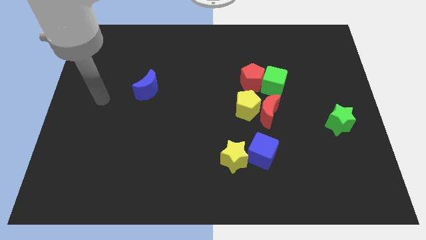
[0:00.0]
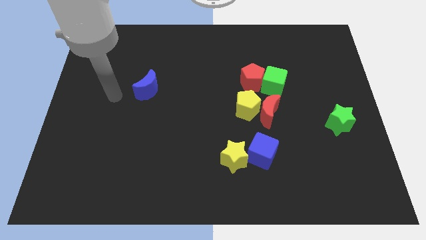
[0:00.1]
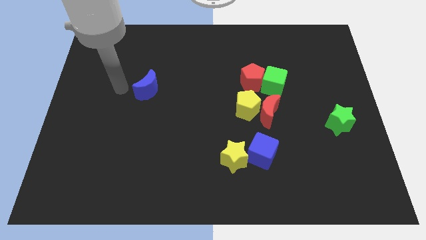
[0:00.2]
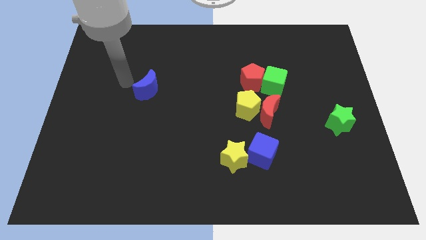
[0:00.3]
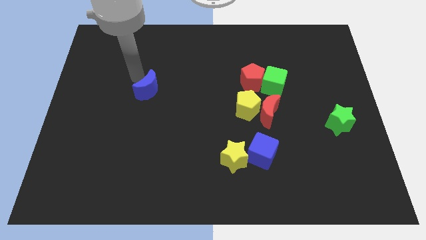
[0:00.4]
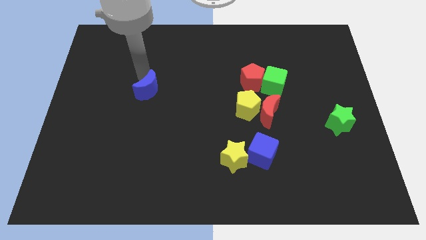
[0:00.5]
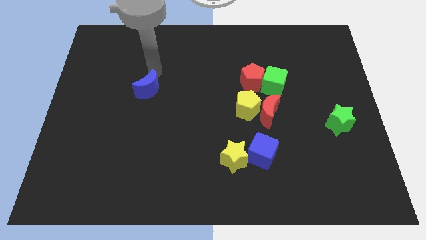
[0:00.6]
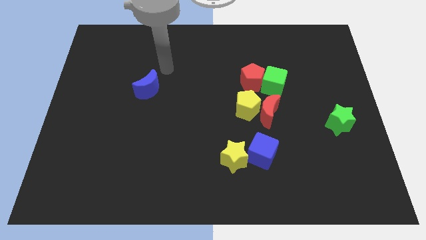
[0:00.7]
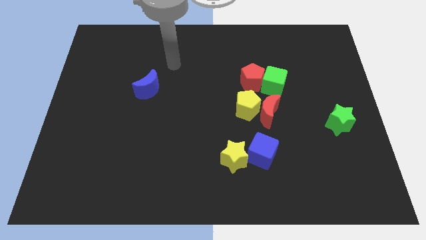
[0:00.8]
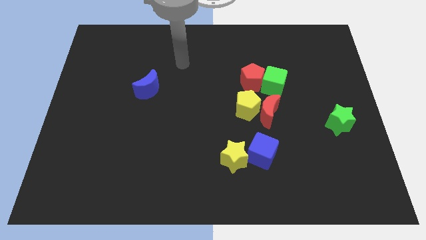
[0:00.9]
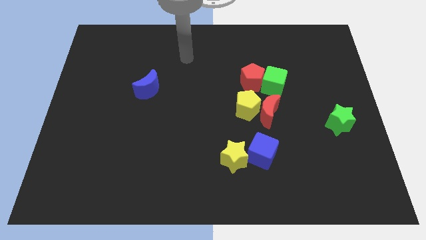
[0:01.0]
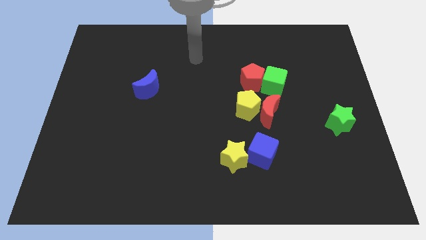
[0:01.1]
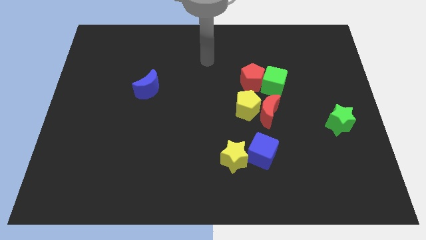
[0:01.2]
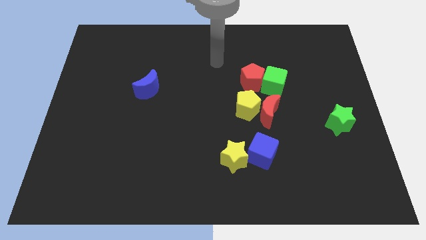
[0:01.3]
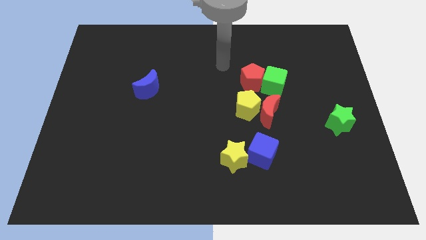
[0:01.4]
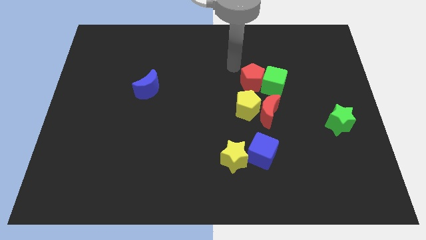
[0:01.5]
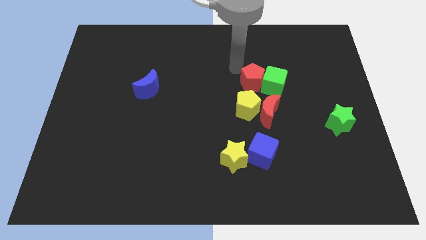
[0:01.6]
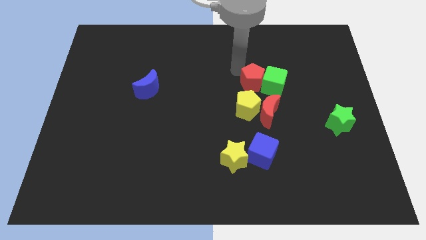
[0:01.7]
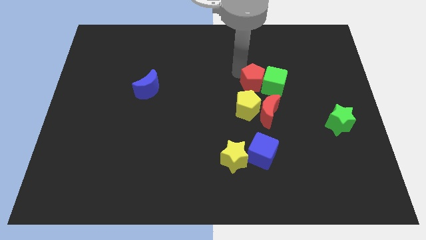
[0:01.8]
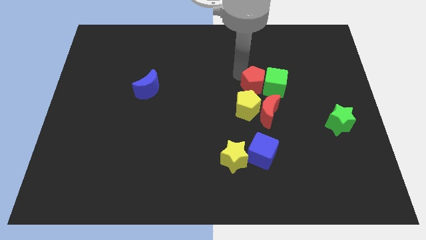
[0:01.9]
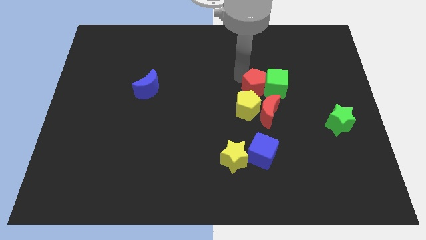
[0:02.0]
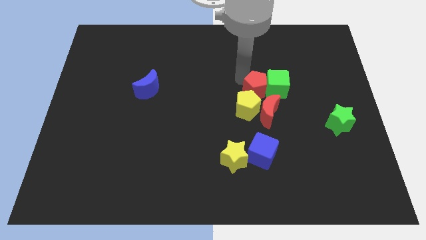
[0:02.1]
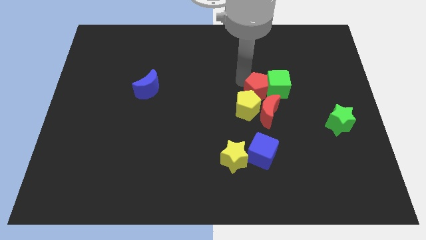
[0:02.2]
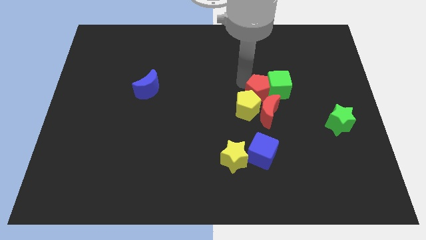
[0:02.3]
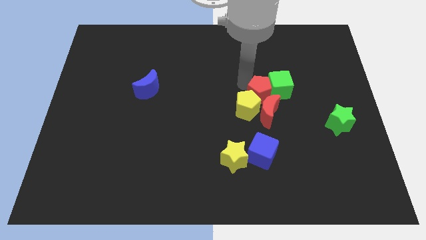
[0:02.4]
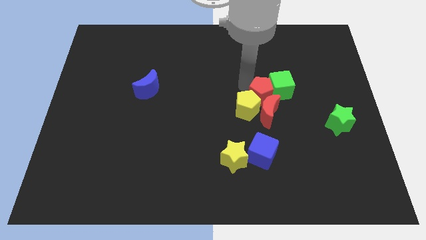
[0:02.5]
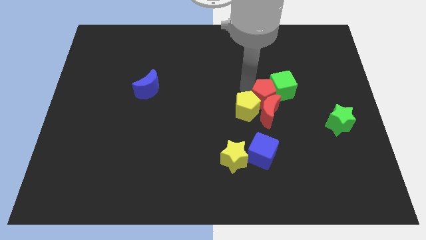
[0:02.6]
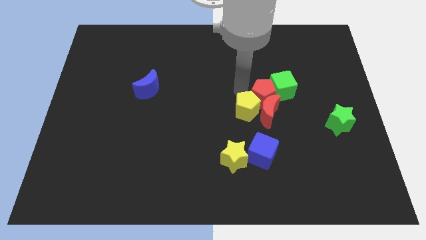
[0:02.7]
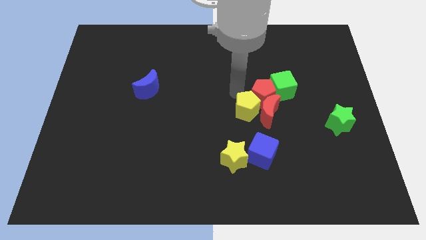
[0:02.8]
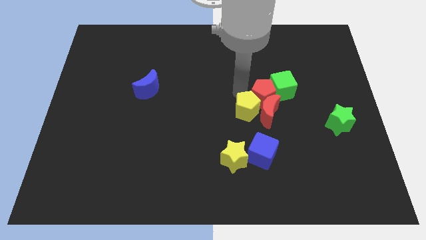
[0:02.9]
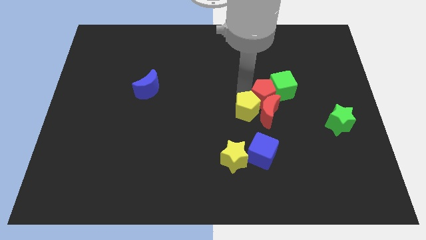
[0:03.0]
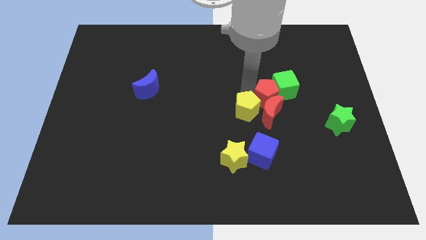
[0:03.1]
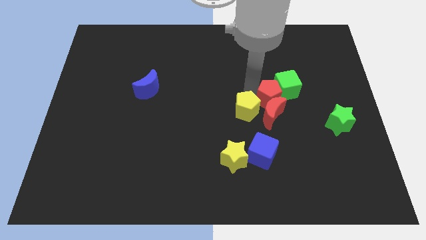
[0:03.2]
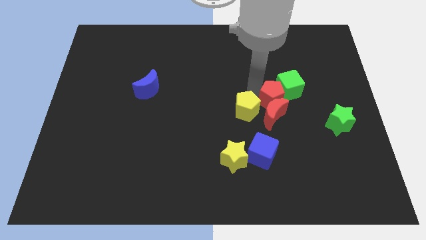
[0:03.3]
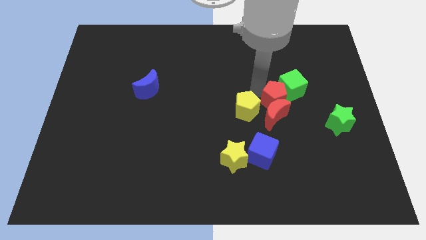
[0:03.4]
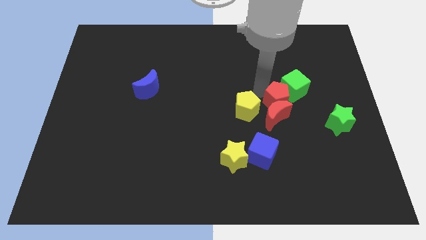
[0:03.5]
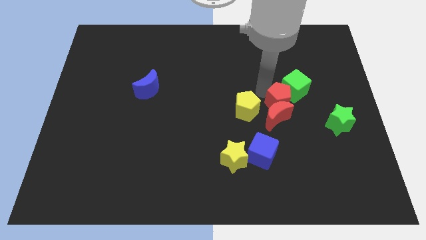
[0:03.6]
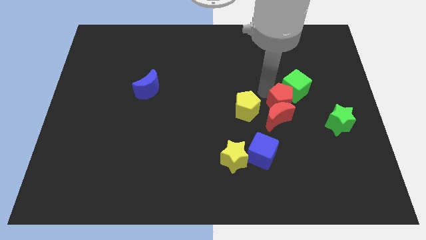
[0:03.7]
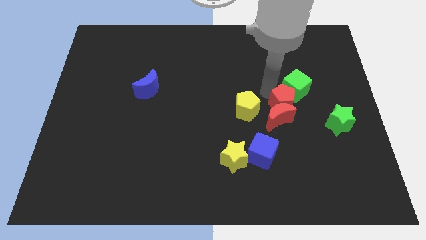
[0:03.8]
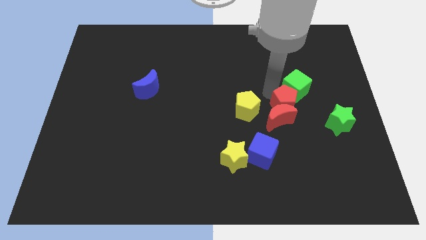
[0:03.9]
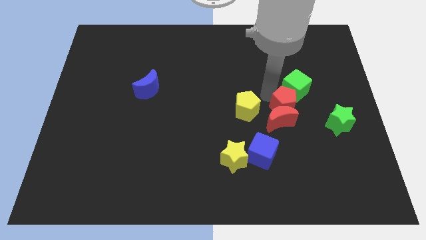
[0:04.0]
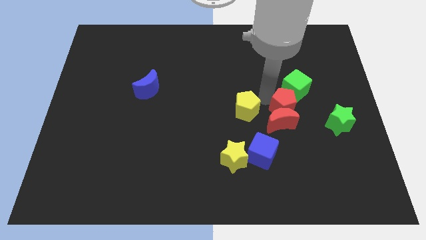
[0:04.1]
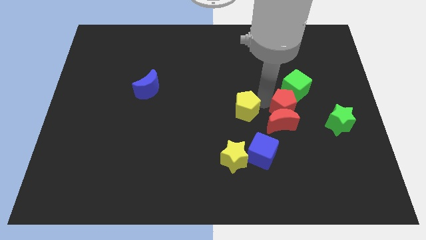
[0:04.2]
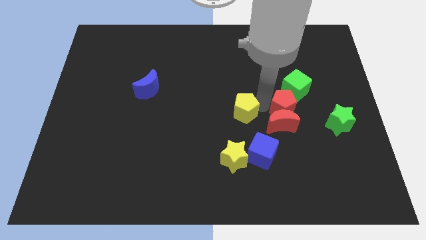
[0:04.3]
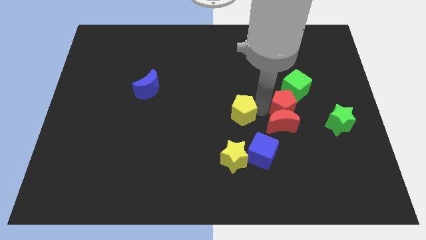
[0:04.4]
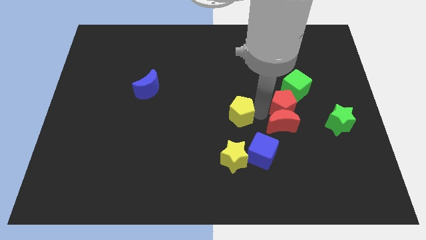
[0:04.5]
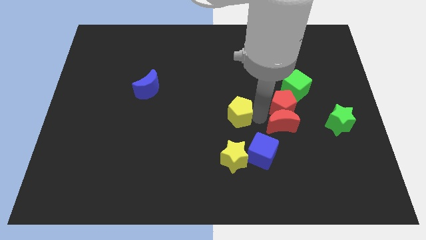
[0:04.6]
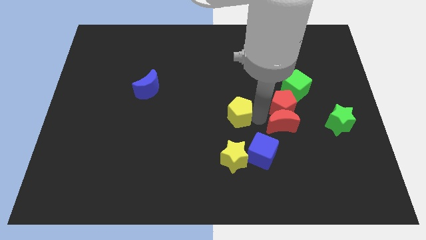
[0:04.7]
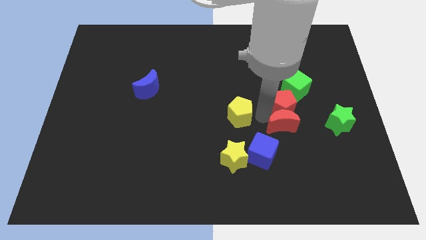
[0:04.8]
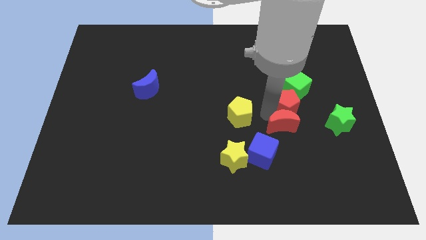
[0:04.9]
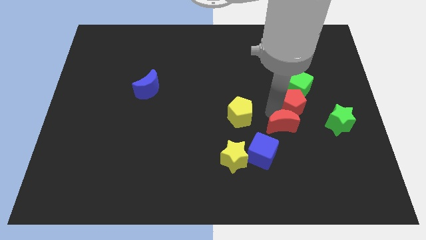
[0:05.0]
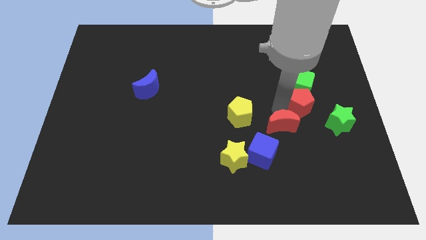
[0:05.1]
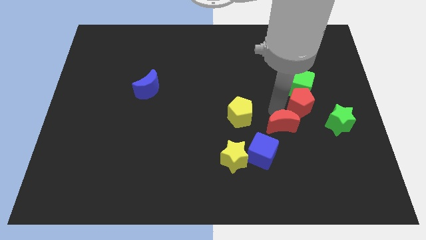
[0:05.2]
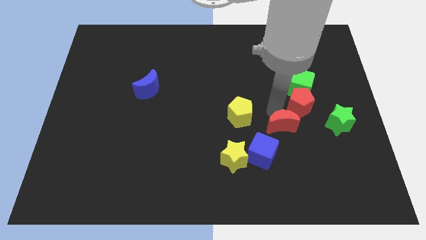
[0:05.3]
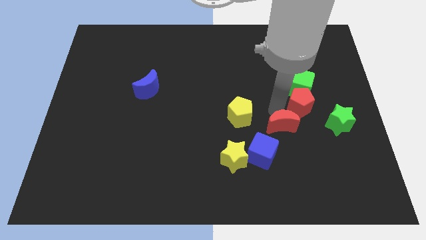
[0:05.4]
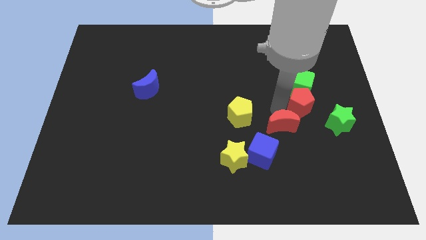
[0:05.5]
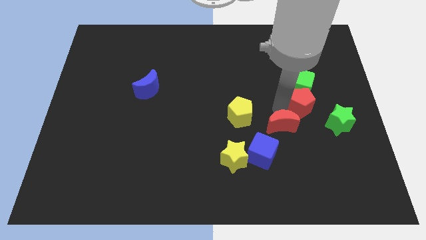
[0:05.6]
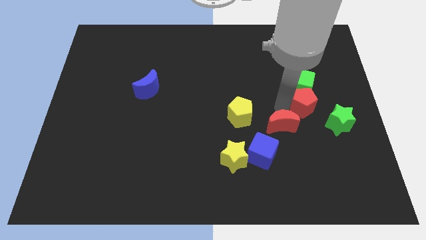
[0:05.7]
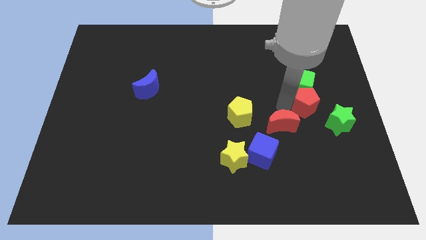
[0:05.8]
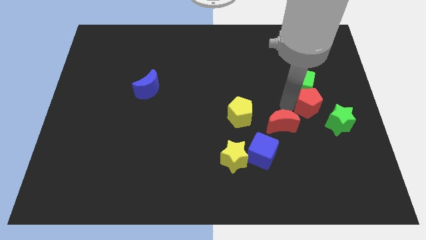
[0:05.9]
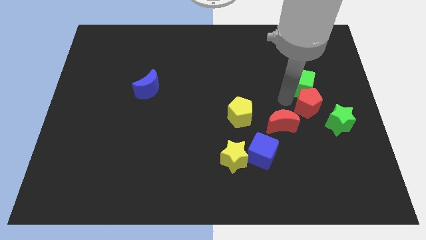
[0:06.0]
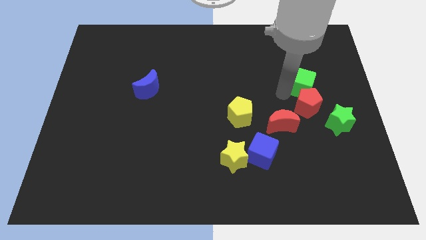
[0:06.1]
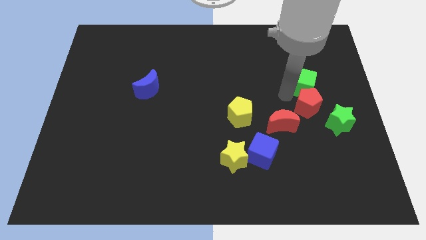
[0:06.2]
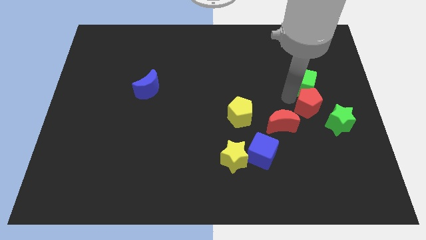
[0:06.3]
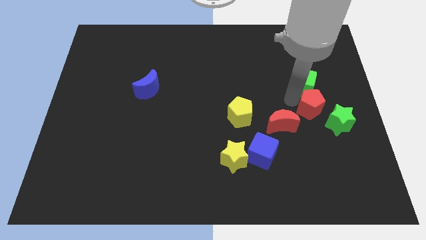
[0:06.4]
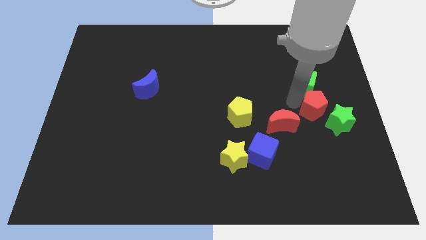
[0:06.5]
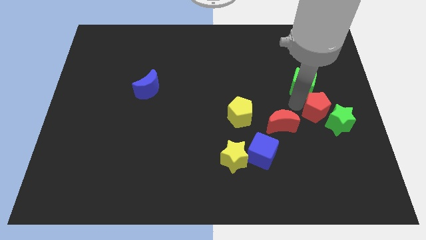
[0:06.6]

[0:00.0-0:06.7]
push the red pentagon to the green star

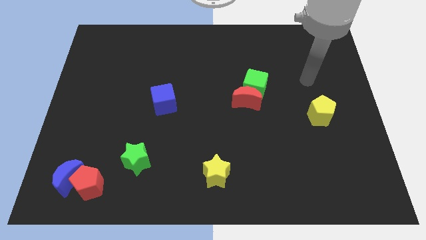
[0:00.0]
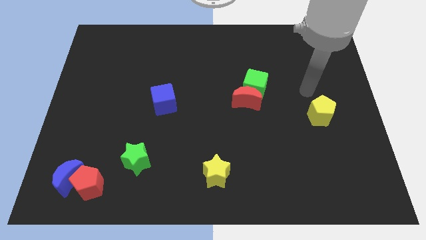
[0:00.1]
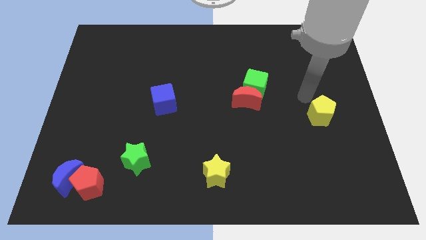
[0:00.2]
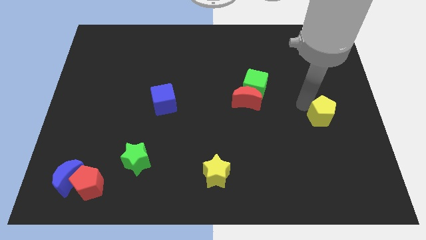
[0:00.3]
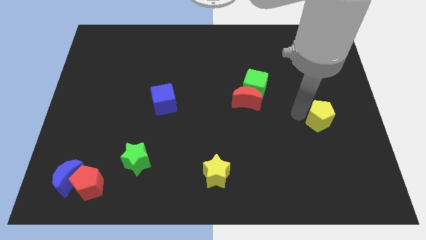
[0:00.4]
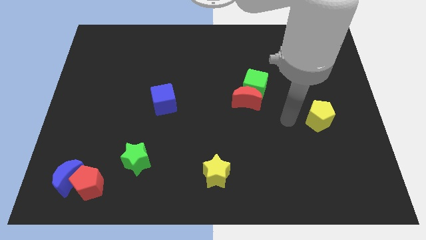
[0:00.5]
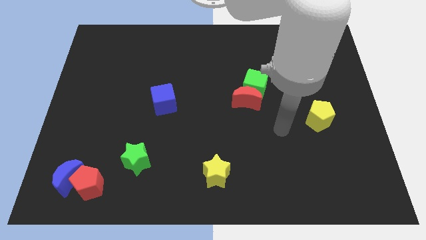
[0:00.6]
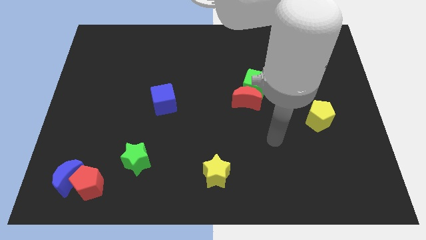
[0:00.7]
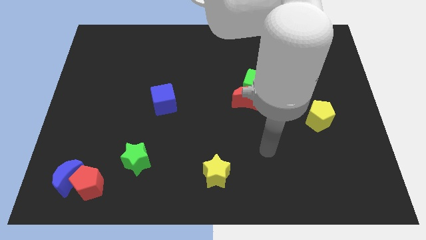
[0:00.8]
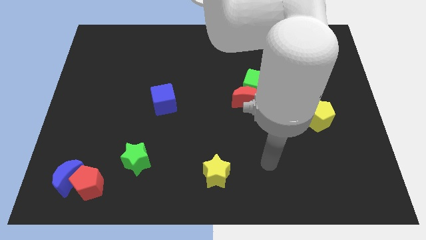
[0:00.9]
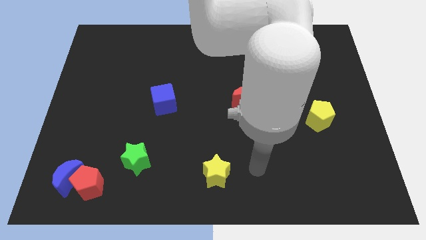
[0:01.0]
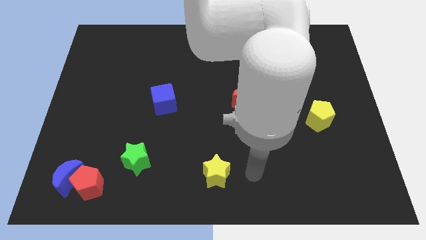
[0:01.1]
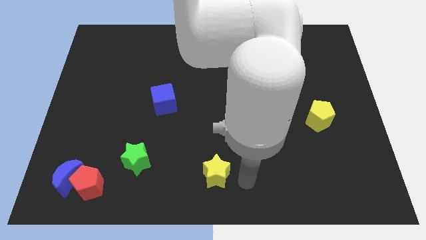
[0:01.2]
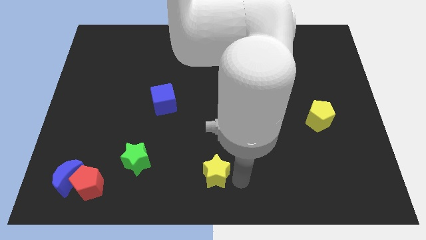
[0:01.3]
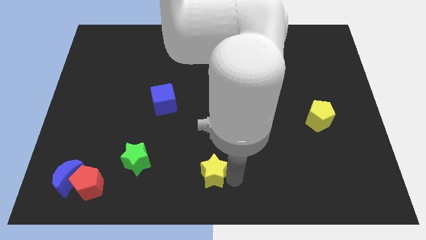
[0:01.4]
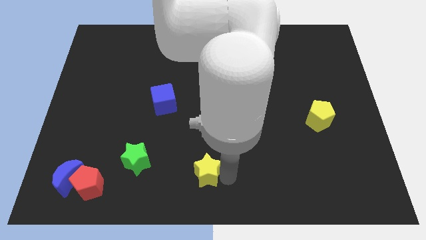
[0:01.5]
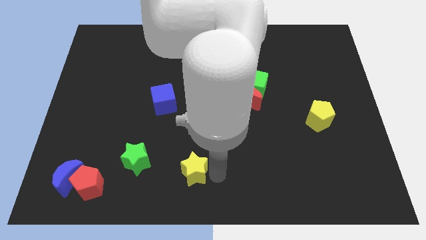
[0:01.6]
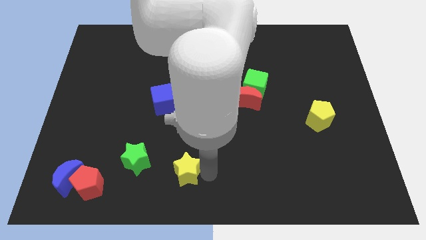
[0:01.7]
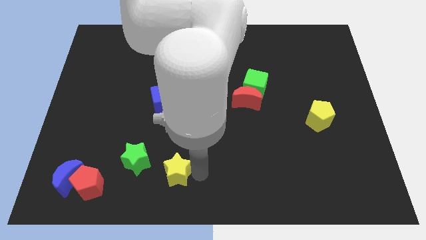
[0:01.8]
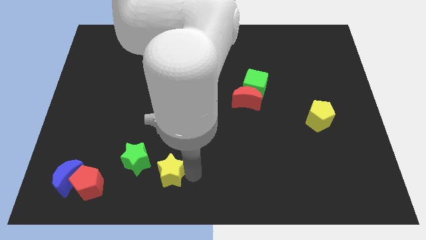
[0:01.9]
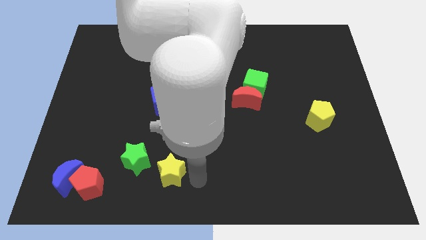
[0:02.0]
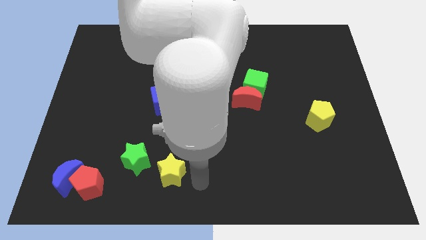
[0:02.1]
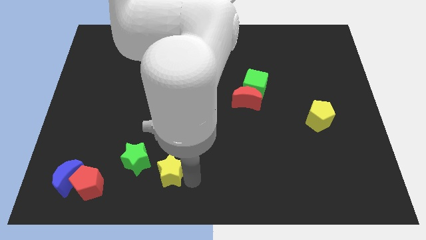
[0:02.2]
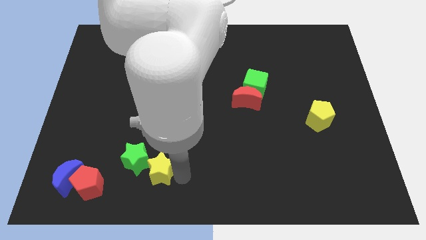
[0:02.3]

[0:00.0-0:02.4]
put the yellow star next to the green star
